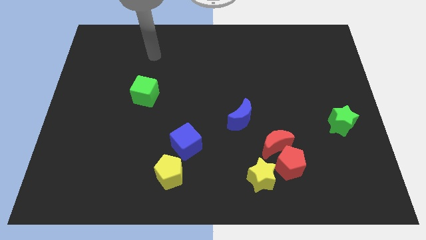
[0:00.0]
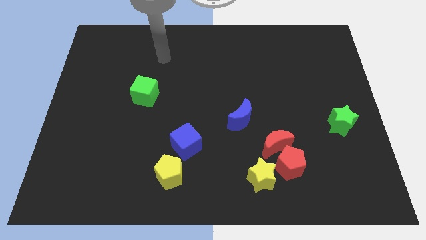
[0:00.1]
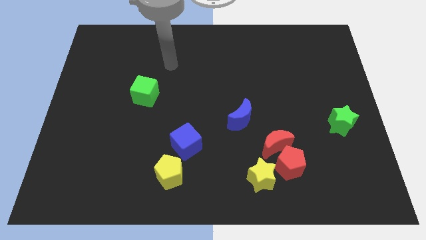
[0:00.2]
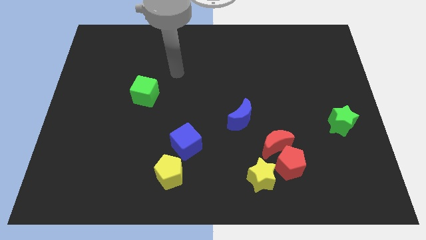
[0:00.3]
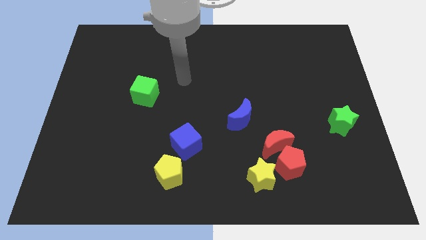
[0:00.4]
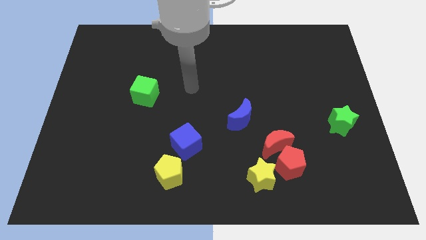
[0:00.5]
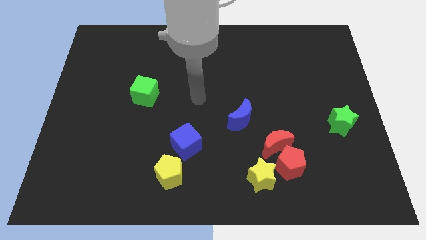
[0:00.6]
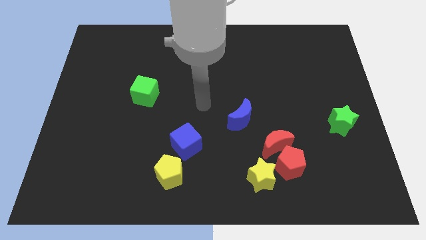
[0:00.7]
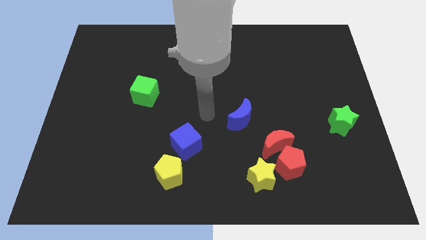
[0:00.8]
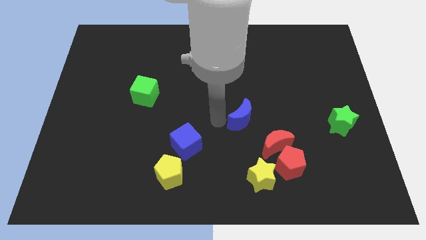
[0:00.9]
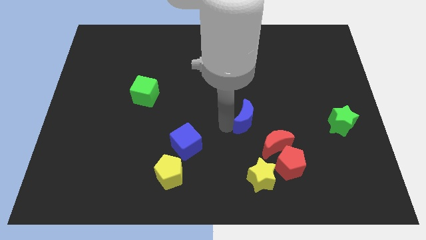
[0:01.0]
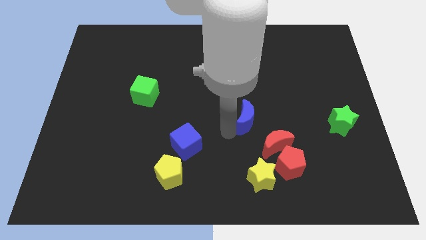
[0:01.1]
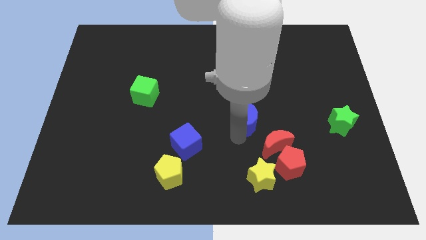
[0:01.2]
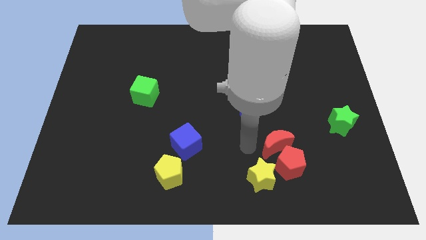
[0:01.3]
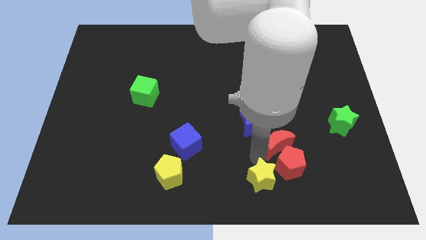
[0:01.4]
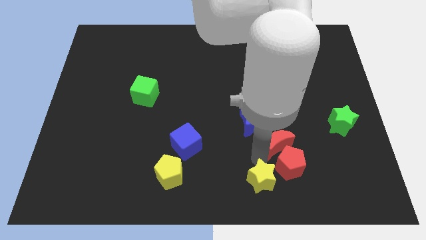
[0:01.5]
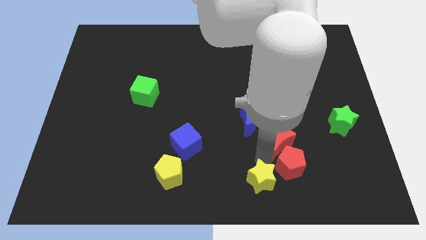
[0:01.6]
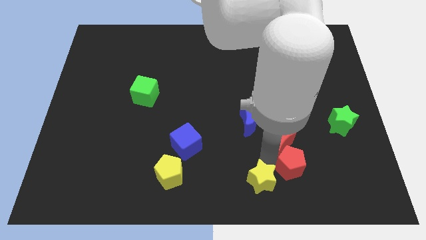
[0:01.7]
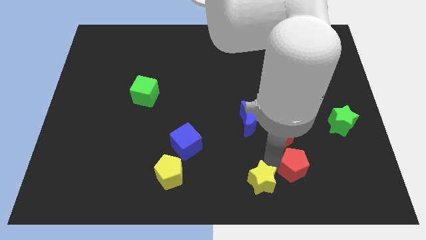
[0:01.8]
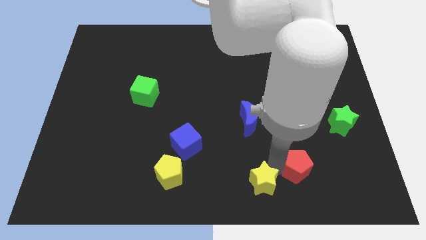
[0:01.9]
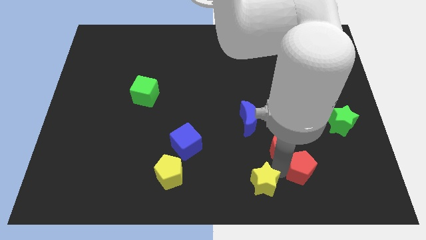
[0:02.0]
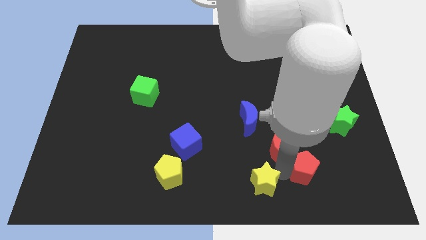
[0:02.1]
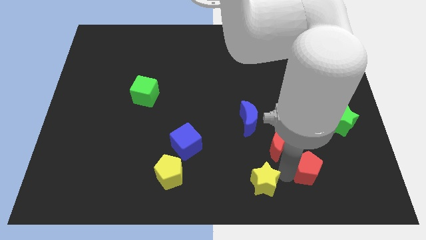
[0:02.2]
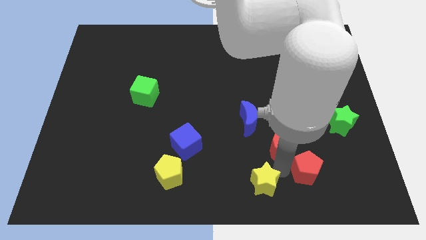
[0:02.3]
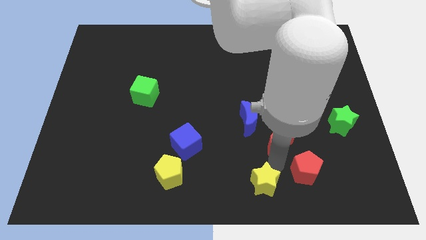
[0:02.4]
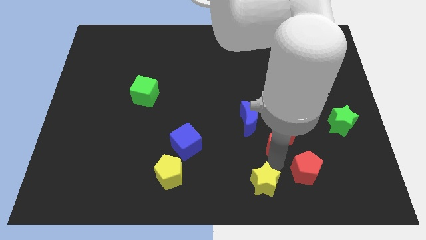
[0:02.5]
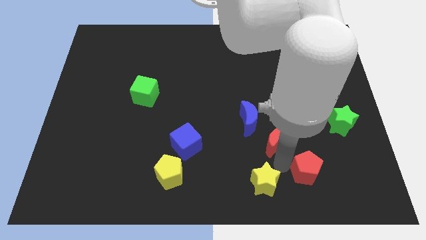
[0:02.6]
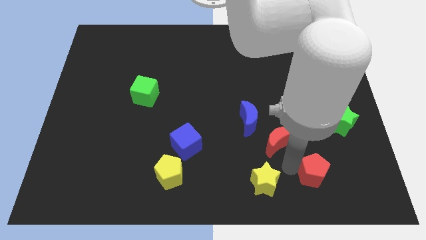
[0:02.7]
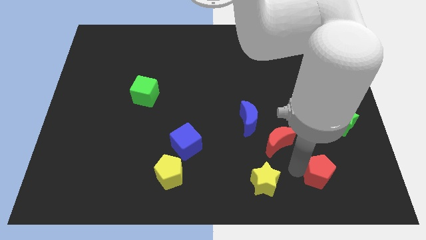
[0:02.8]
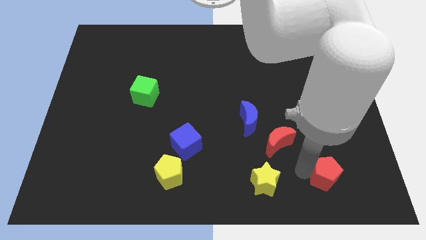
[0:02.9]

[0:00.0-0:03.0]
pull the red pentagon apart from the red moon and yellow star

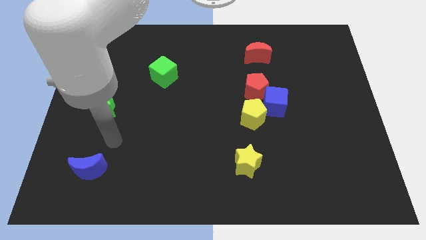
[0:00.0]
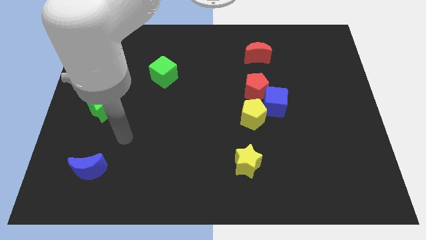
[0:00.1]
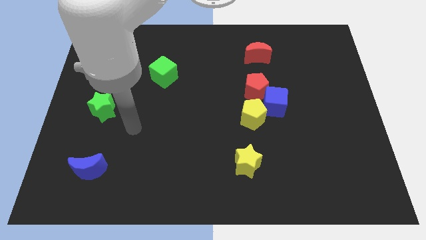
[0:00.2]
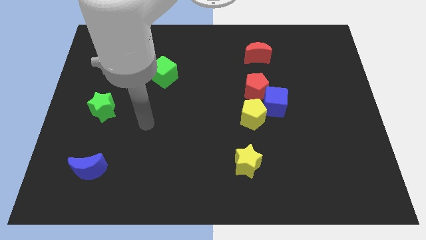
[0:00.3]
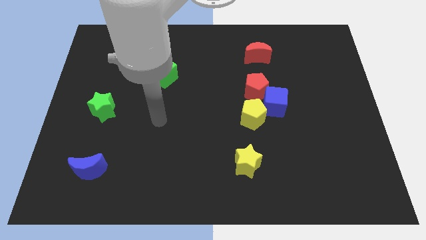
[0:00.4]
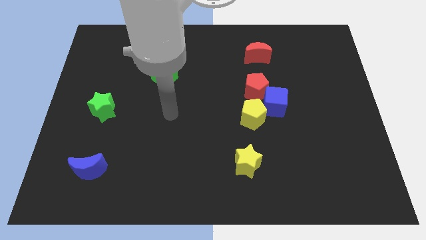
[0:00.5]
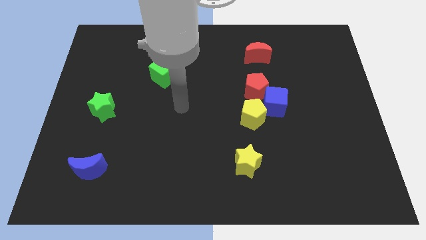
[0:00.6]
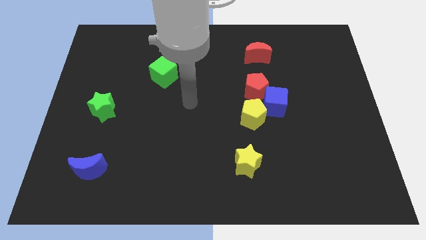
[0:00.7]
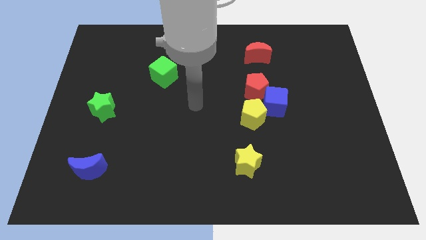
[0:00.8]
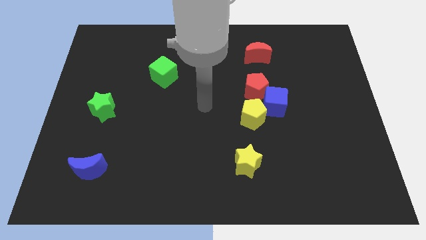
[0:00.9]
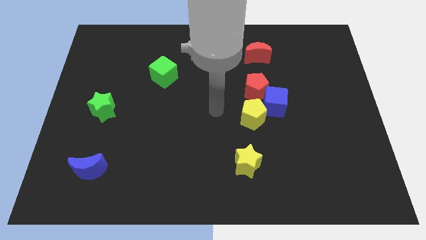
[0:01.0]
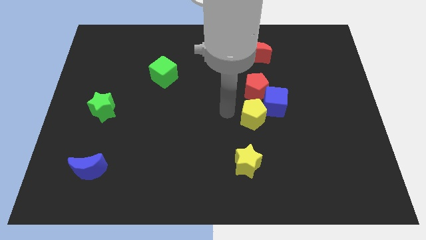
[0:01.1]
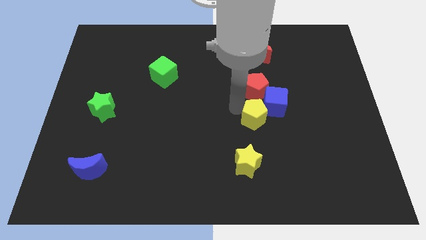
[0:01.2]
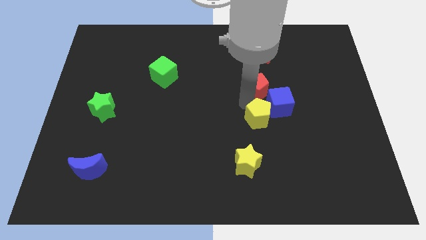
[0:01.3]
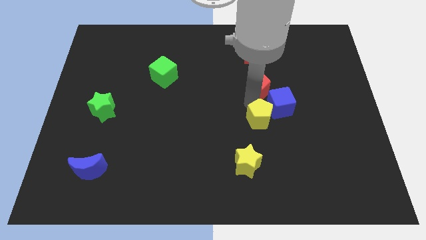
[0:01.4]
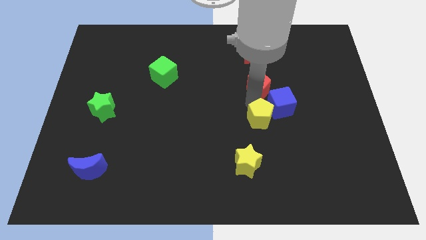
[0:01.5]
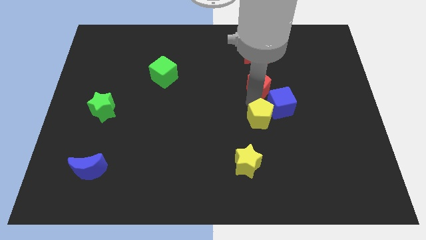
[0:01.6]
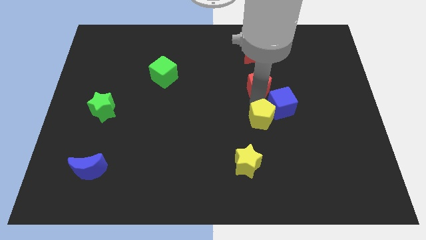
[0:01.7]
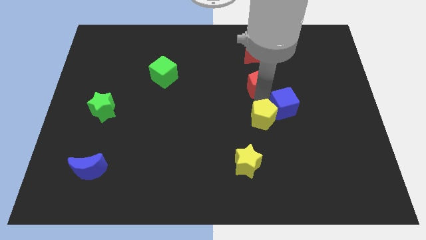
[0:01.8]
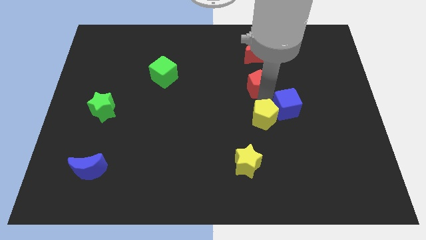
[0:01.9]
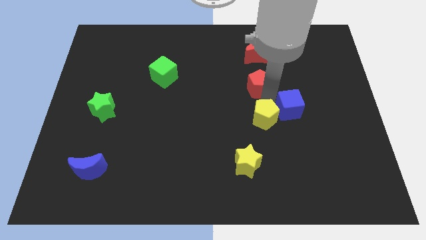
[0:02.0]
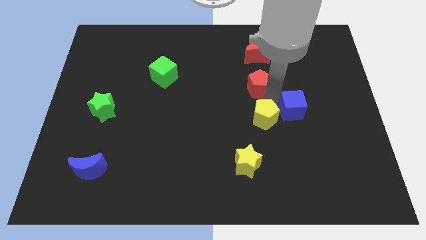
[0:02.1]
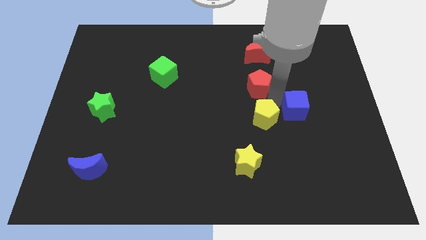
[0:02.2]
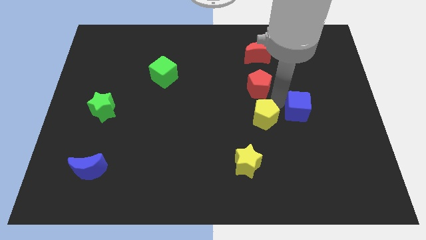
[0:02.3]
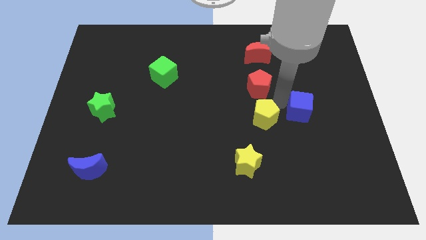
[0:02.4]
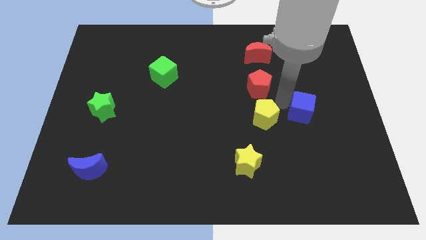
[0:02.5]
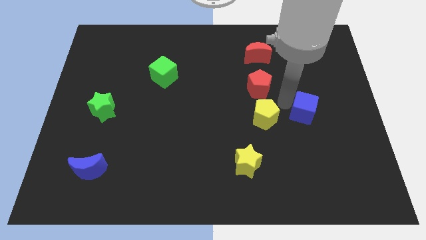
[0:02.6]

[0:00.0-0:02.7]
move the blue cube away from the red pentagon and yellow pentagon

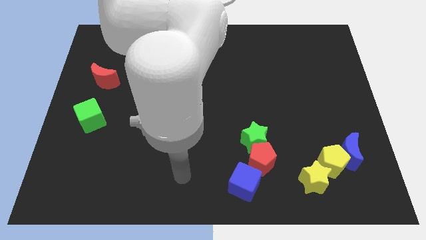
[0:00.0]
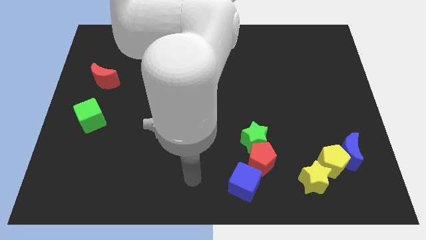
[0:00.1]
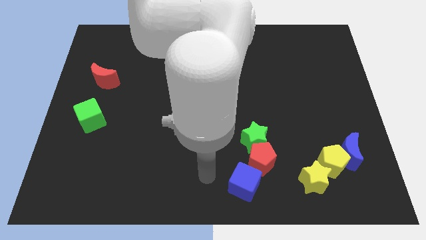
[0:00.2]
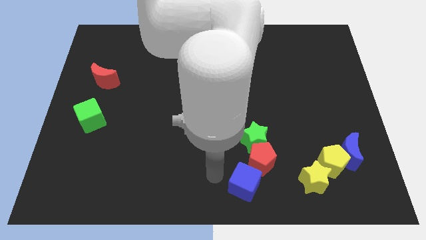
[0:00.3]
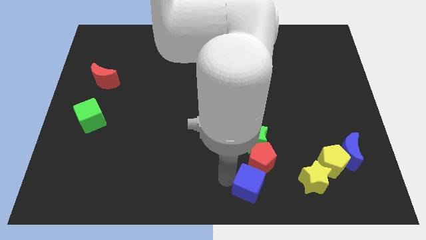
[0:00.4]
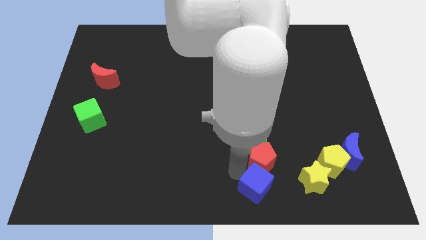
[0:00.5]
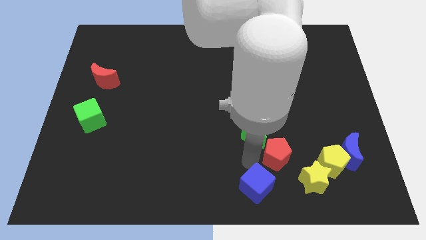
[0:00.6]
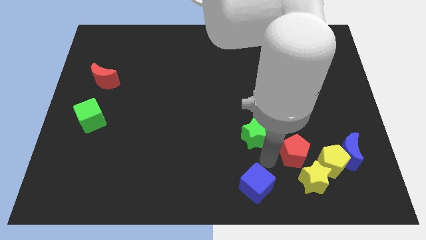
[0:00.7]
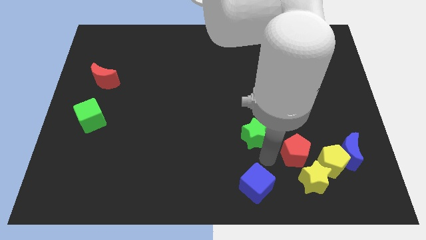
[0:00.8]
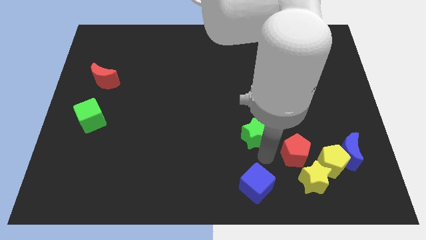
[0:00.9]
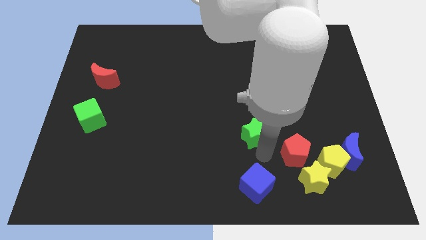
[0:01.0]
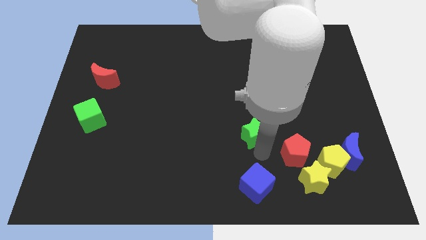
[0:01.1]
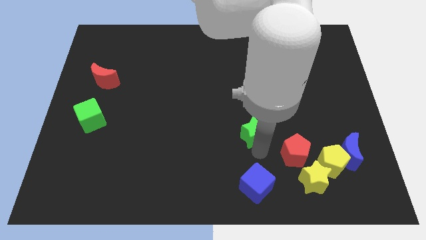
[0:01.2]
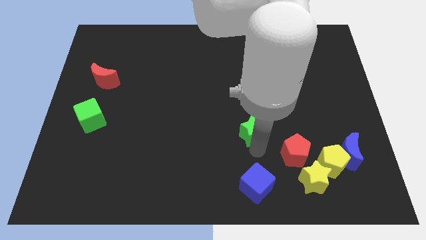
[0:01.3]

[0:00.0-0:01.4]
pull the green star apart from the red pentagon

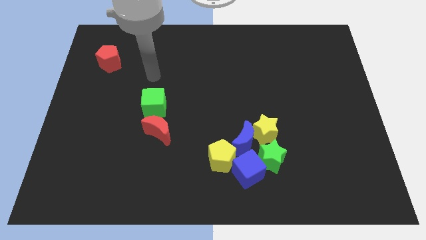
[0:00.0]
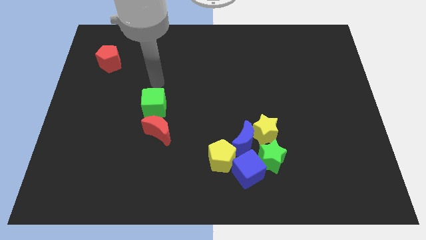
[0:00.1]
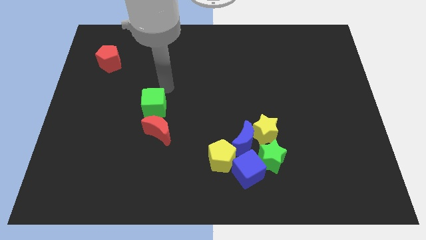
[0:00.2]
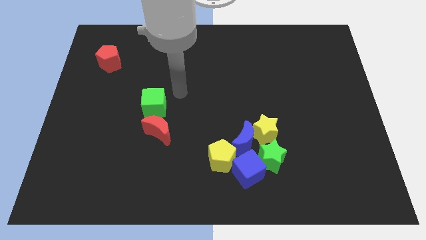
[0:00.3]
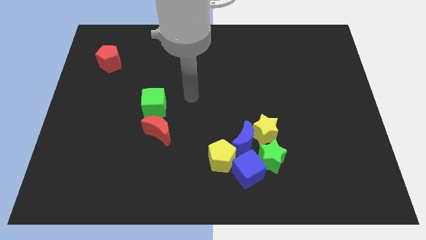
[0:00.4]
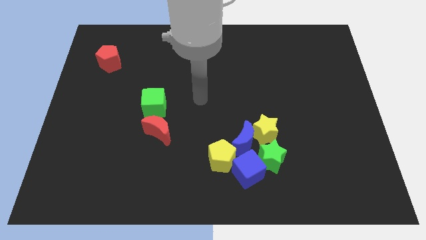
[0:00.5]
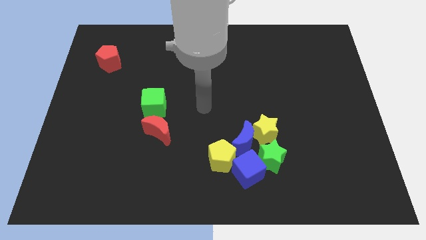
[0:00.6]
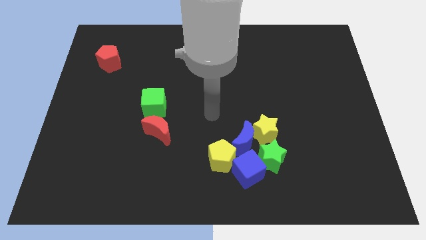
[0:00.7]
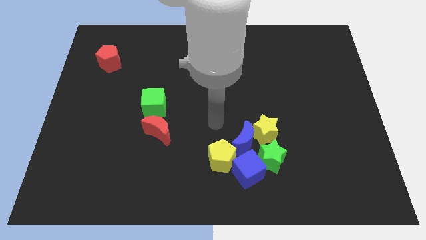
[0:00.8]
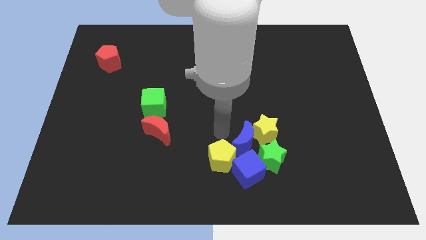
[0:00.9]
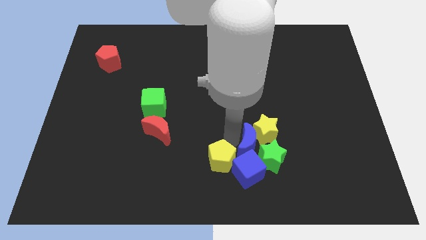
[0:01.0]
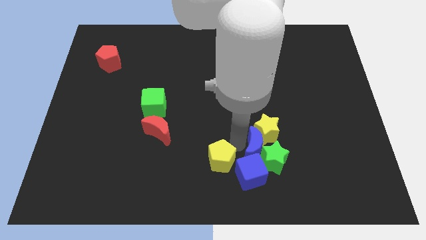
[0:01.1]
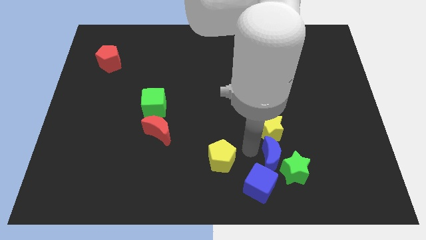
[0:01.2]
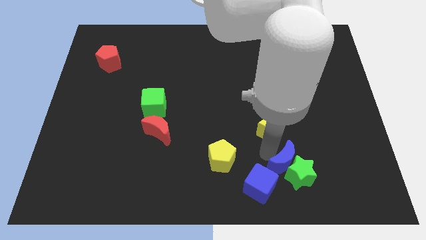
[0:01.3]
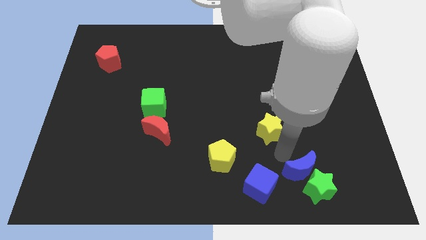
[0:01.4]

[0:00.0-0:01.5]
pull the yellow star apart from the blue moon and green star

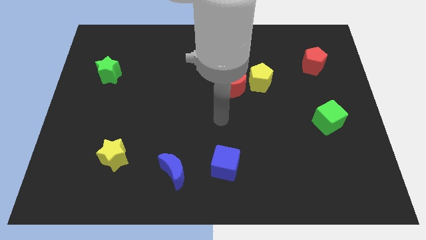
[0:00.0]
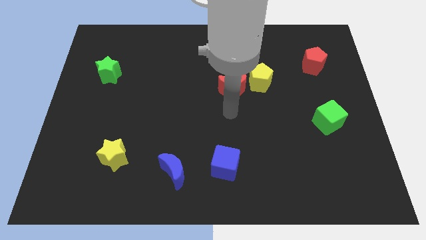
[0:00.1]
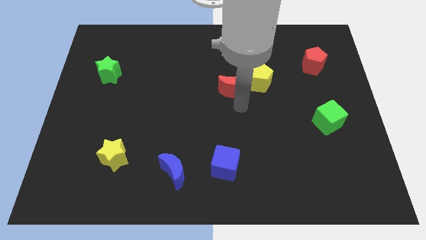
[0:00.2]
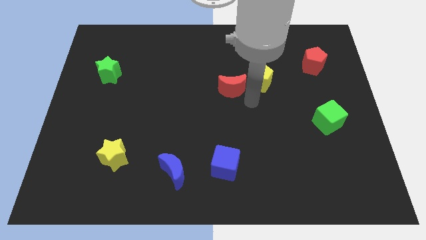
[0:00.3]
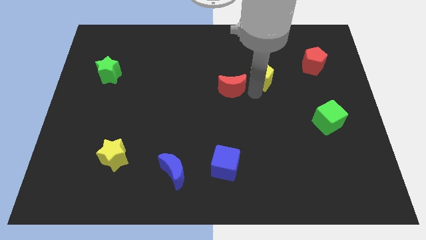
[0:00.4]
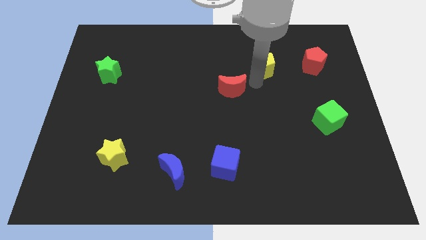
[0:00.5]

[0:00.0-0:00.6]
move the red moon away from the yellow pentagon

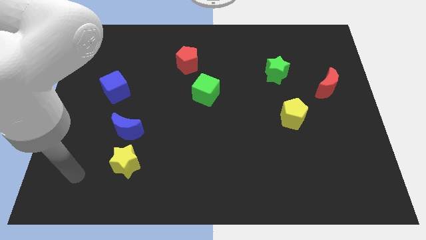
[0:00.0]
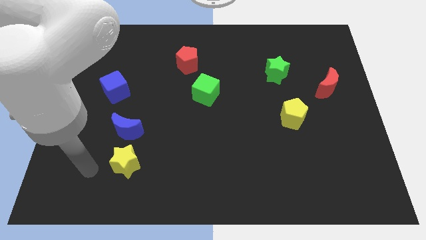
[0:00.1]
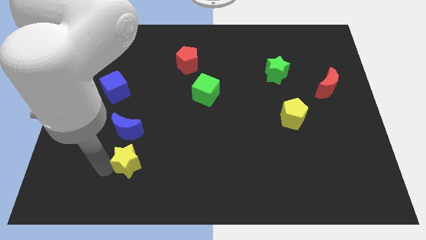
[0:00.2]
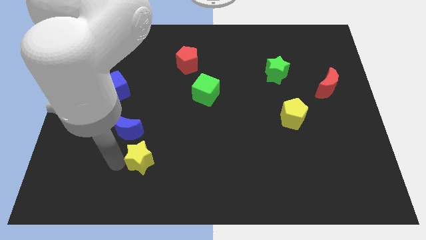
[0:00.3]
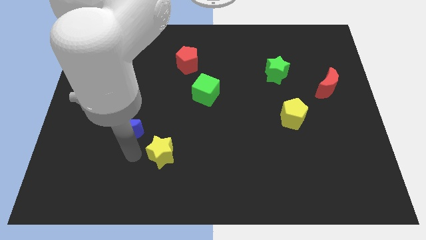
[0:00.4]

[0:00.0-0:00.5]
separate the blue moon from the yellow star
